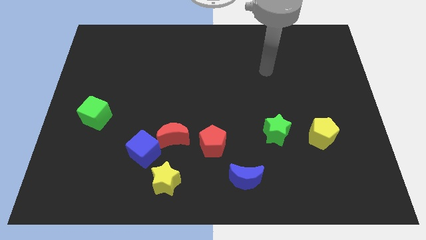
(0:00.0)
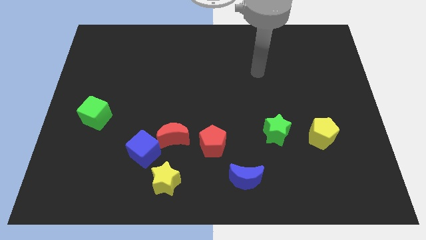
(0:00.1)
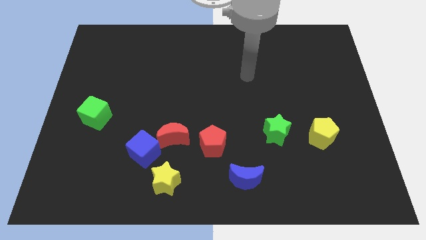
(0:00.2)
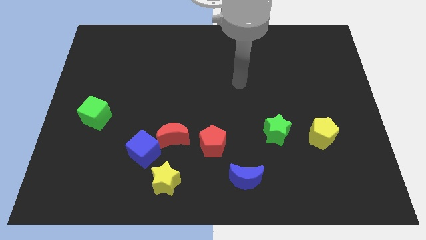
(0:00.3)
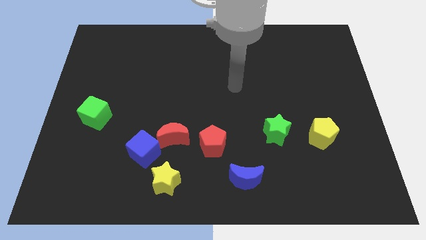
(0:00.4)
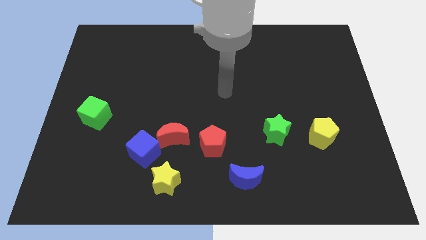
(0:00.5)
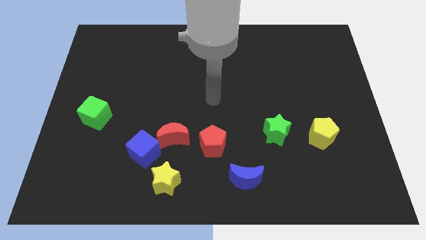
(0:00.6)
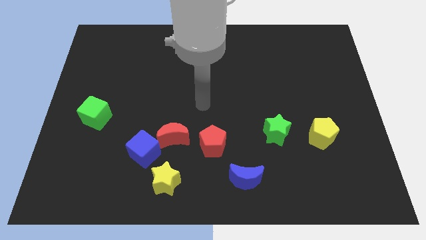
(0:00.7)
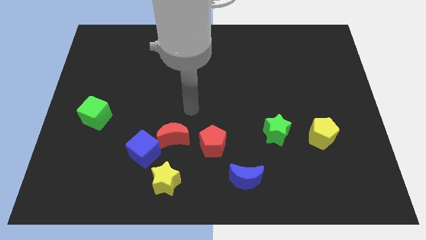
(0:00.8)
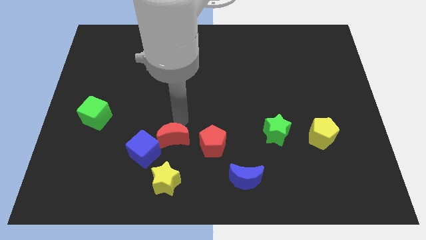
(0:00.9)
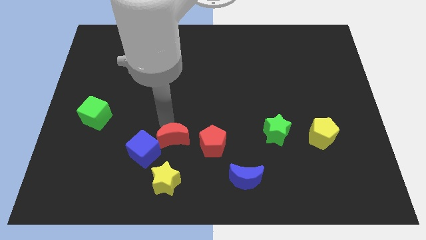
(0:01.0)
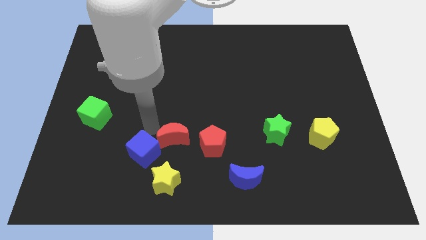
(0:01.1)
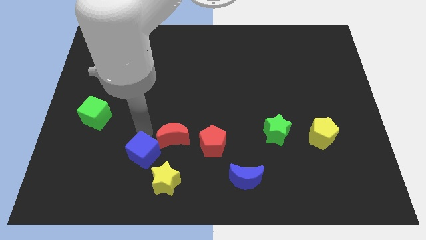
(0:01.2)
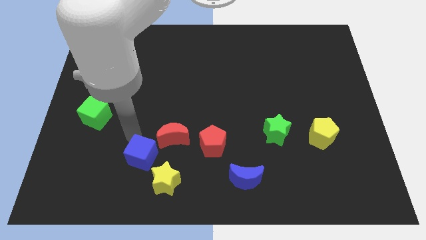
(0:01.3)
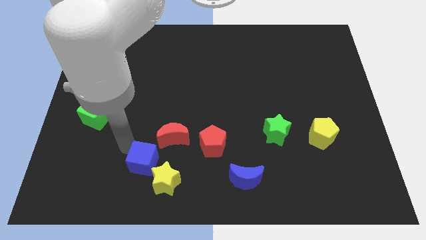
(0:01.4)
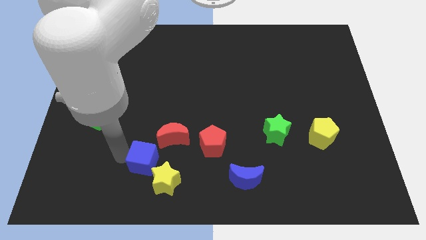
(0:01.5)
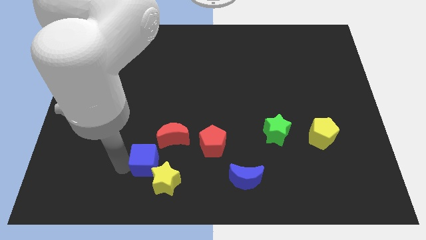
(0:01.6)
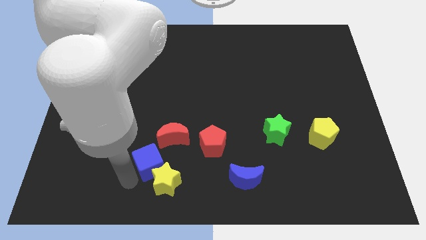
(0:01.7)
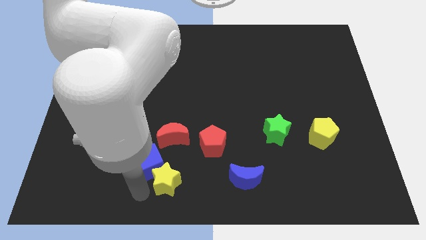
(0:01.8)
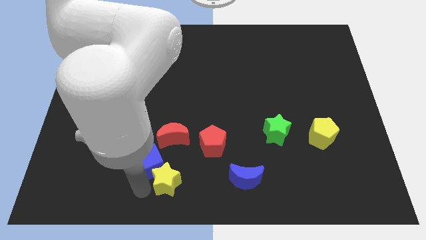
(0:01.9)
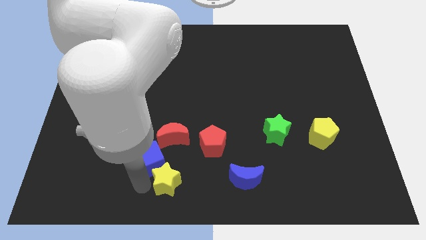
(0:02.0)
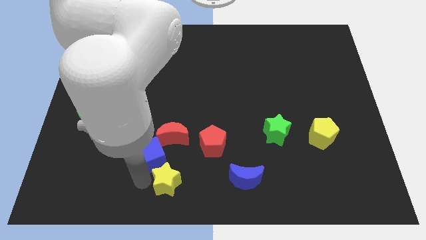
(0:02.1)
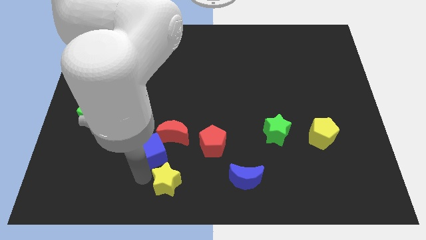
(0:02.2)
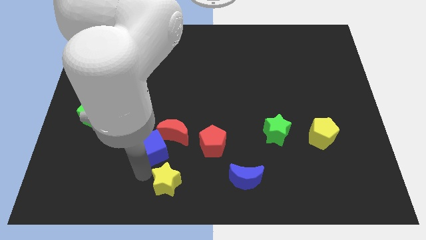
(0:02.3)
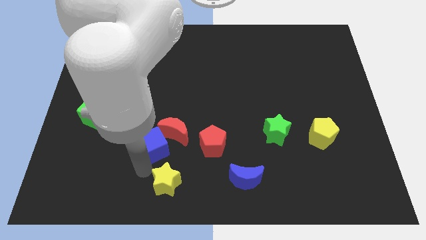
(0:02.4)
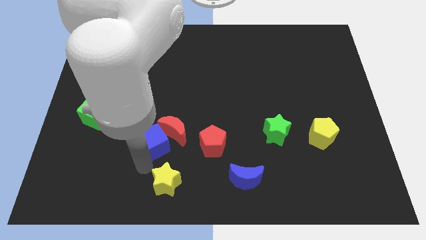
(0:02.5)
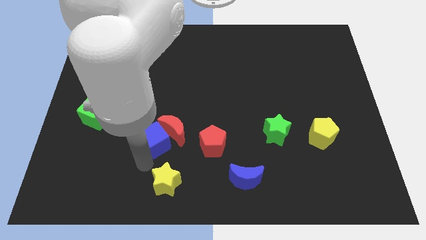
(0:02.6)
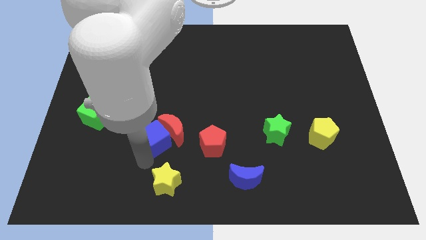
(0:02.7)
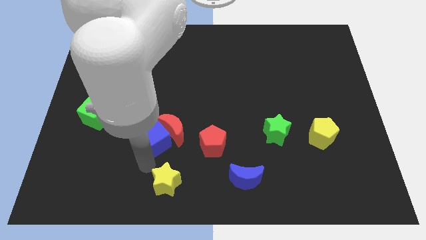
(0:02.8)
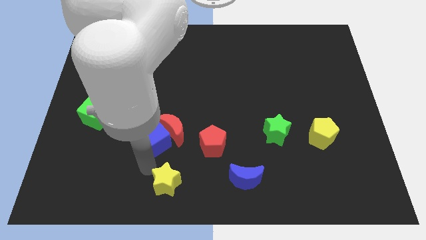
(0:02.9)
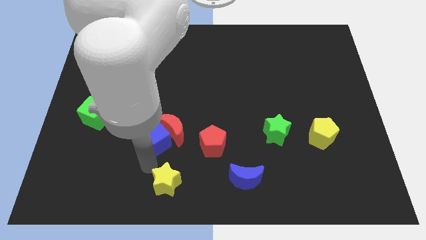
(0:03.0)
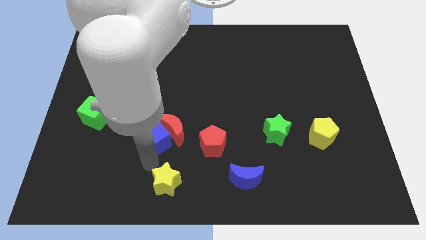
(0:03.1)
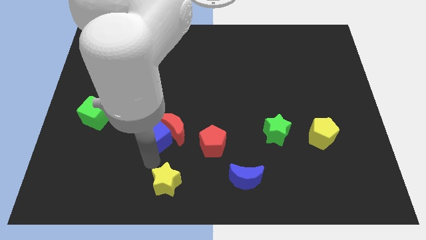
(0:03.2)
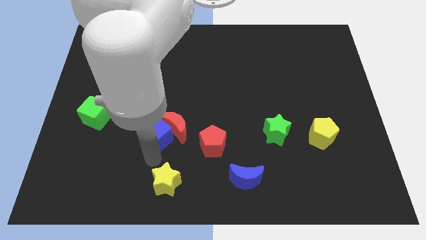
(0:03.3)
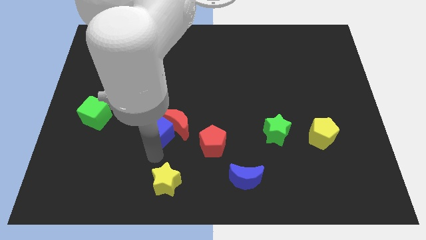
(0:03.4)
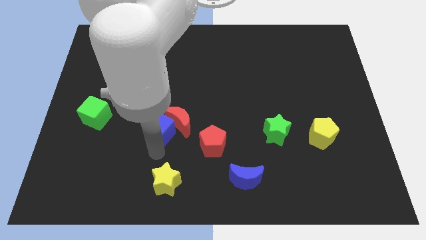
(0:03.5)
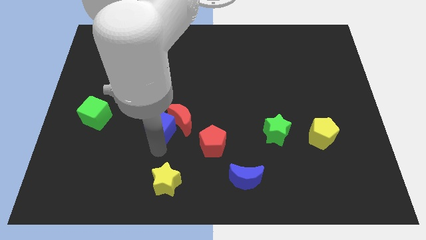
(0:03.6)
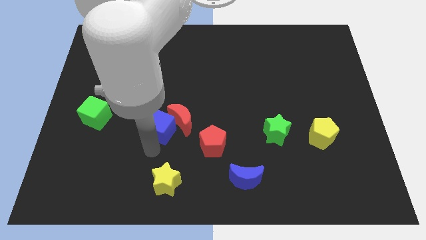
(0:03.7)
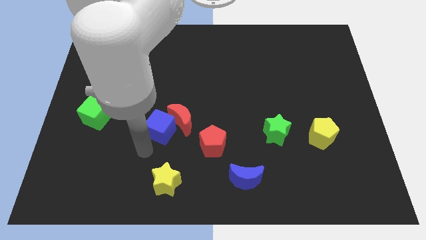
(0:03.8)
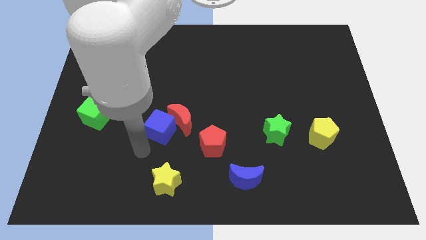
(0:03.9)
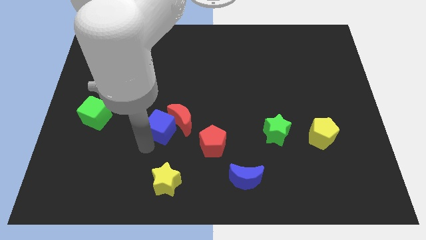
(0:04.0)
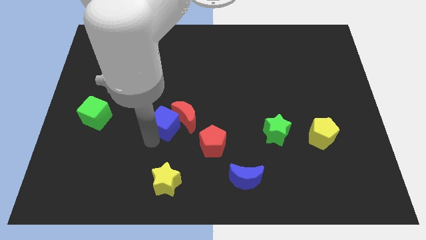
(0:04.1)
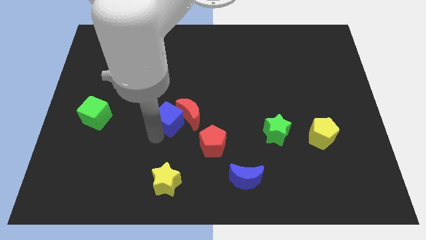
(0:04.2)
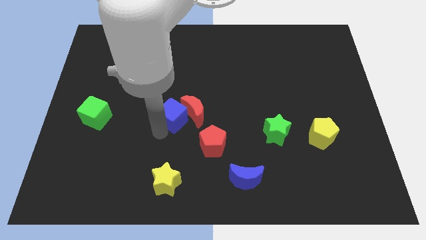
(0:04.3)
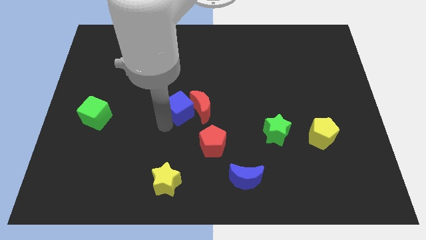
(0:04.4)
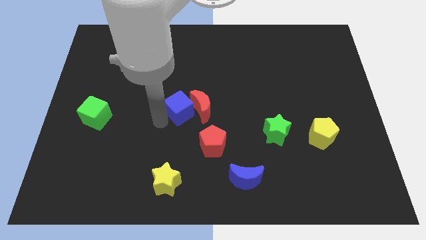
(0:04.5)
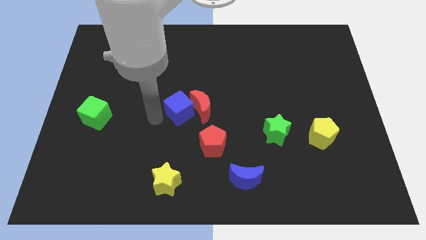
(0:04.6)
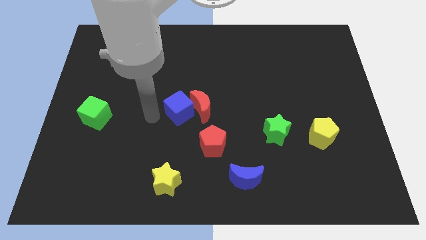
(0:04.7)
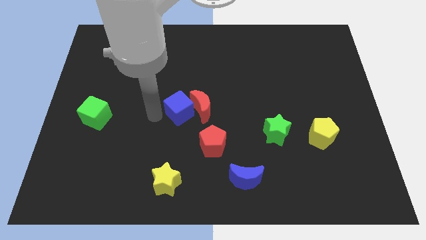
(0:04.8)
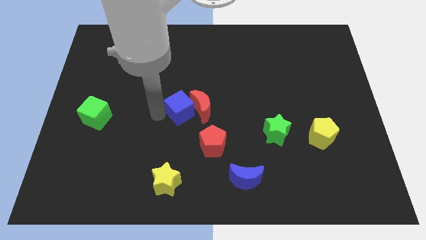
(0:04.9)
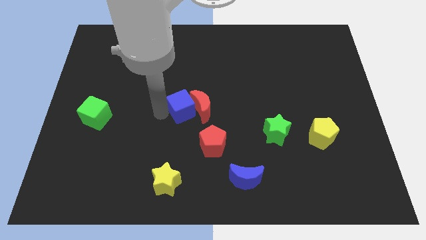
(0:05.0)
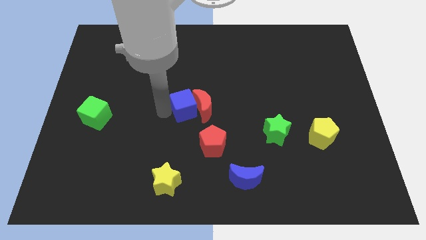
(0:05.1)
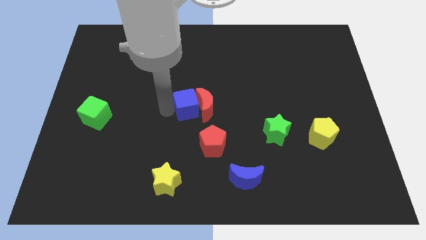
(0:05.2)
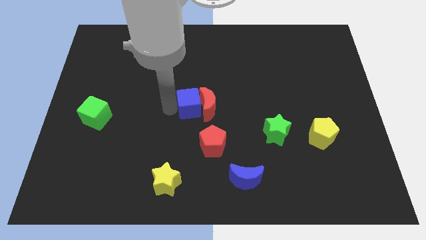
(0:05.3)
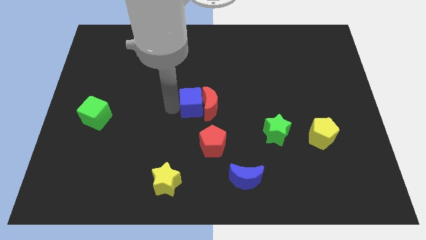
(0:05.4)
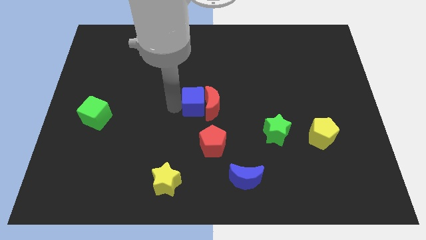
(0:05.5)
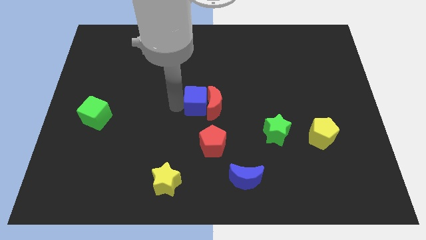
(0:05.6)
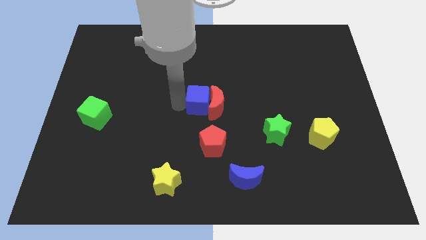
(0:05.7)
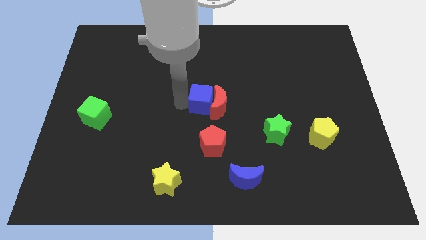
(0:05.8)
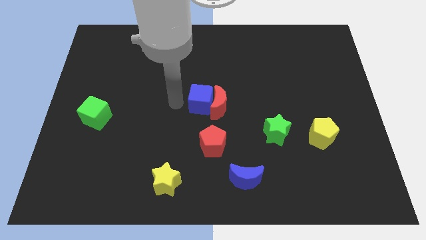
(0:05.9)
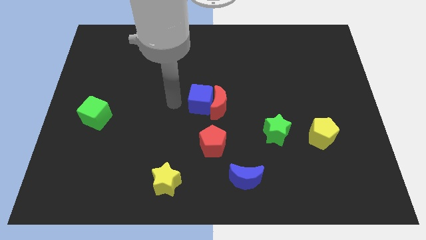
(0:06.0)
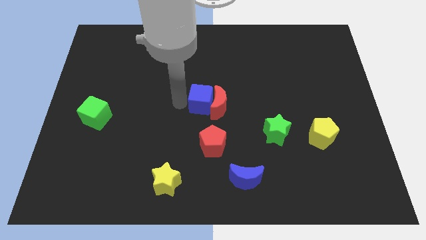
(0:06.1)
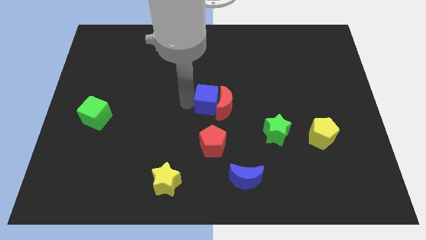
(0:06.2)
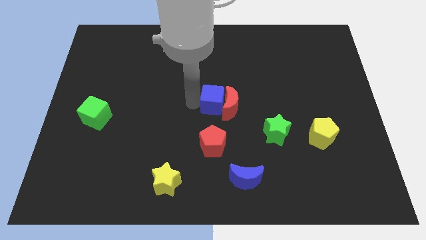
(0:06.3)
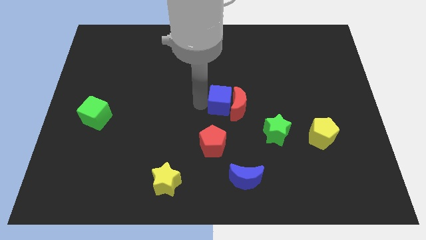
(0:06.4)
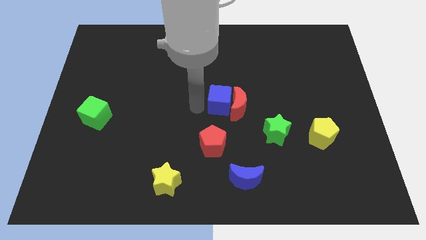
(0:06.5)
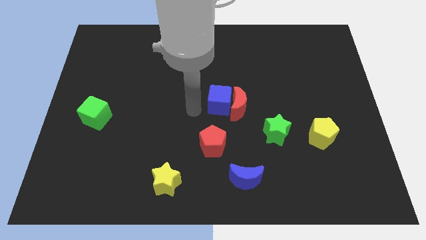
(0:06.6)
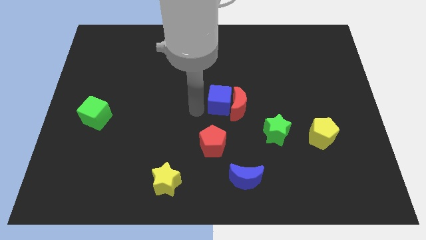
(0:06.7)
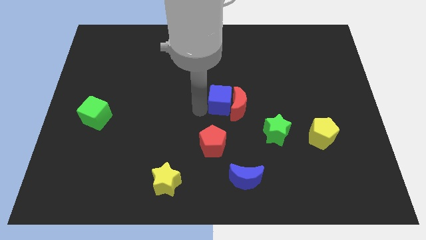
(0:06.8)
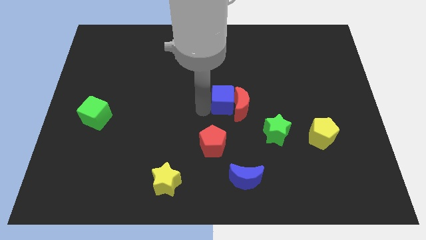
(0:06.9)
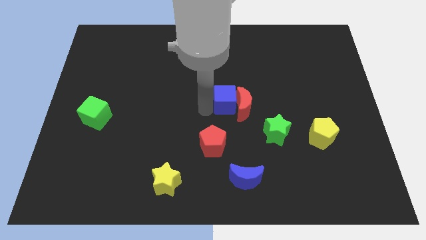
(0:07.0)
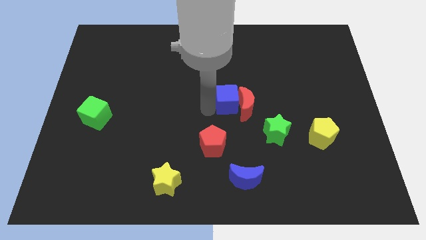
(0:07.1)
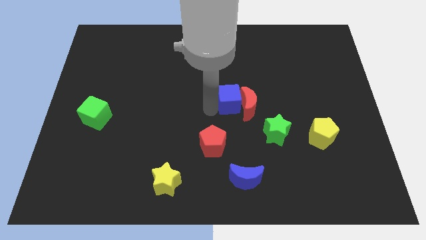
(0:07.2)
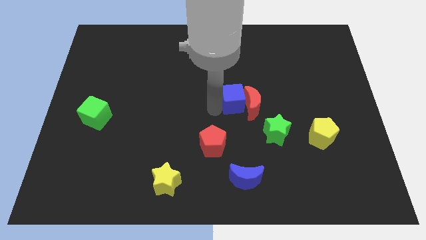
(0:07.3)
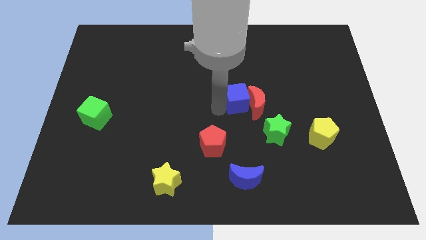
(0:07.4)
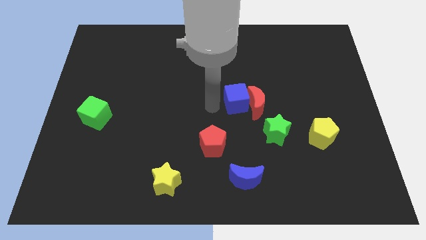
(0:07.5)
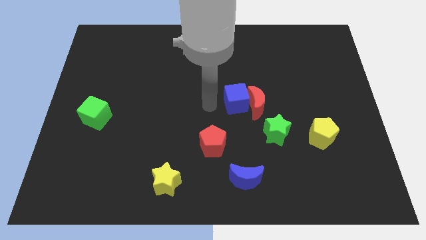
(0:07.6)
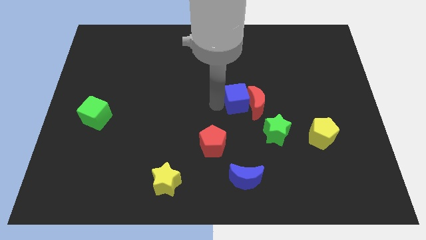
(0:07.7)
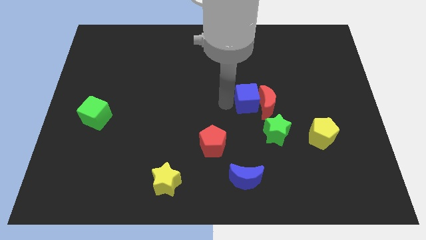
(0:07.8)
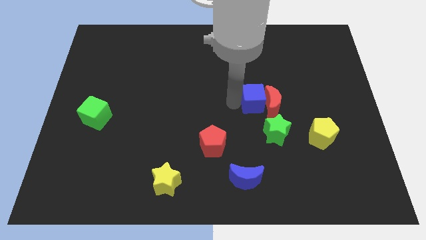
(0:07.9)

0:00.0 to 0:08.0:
move the blue cube to the top of the green star
